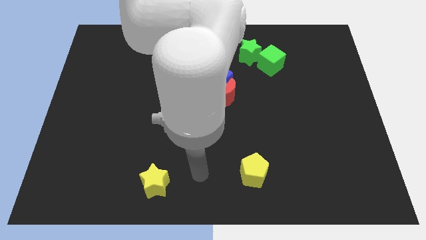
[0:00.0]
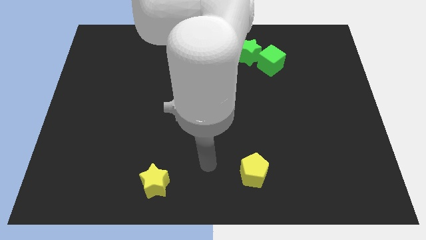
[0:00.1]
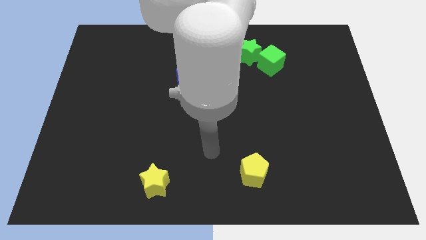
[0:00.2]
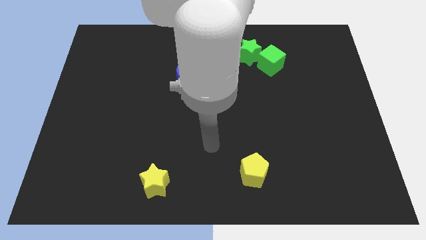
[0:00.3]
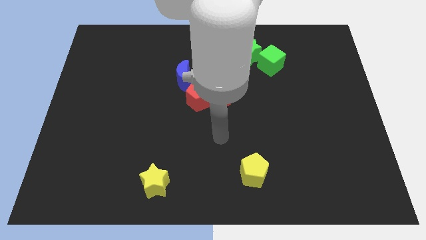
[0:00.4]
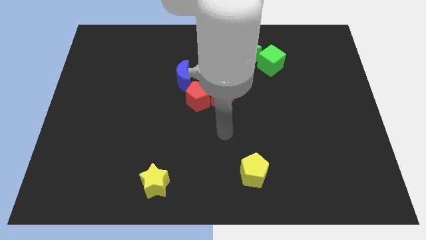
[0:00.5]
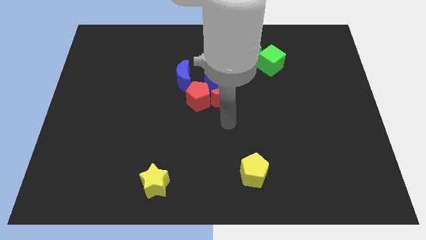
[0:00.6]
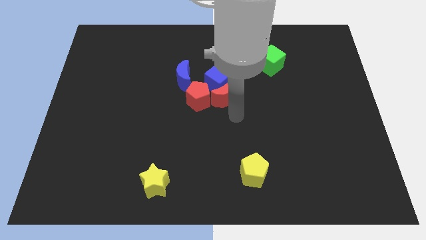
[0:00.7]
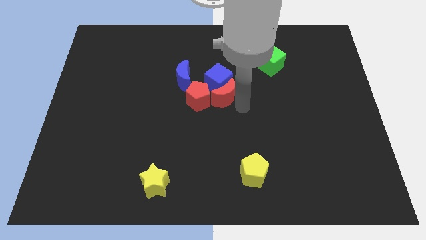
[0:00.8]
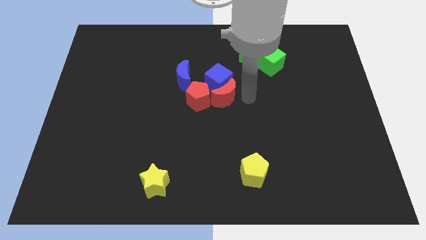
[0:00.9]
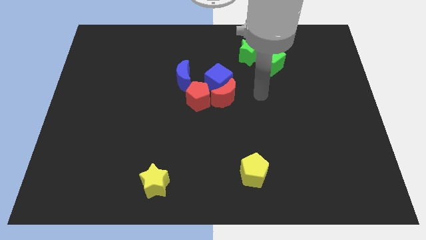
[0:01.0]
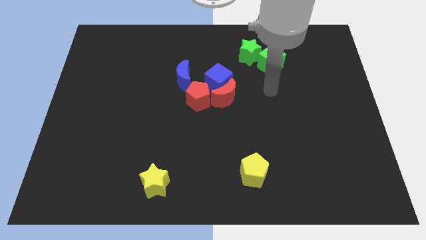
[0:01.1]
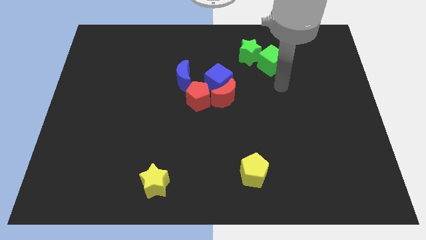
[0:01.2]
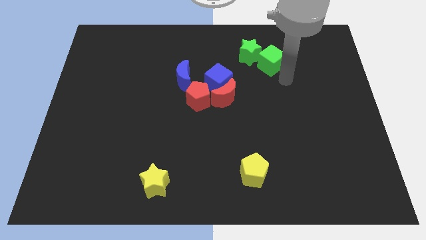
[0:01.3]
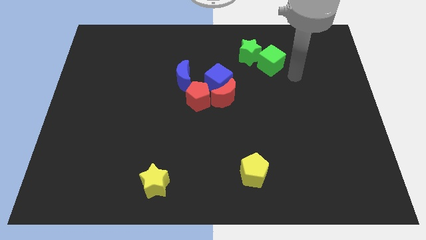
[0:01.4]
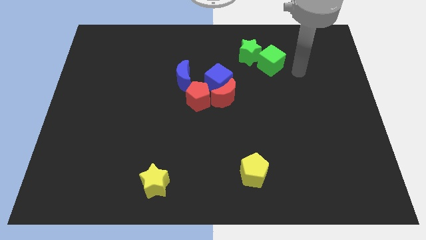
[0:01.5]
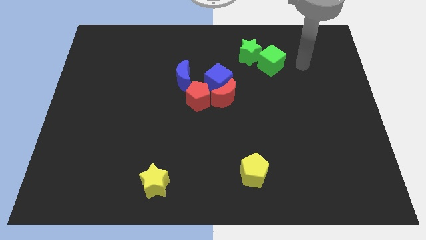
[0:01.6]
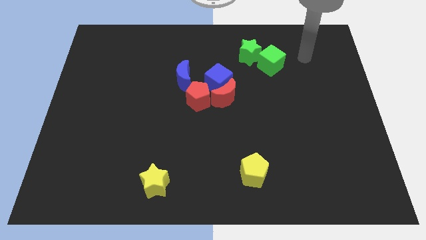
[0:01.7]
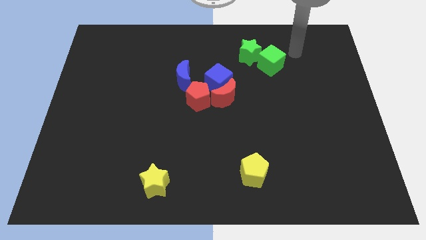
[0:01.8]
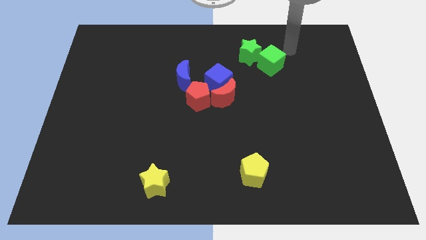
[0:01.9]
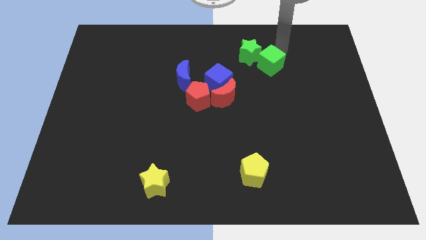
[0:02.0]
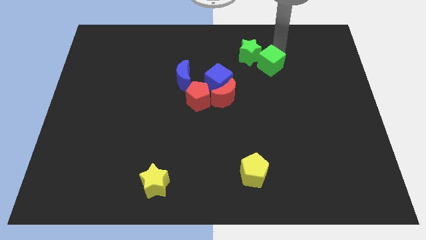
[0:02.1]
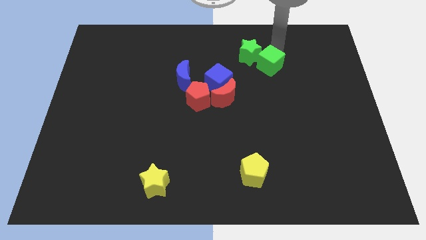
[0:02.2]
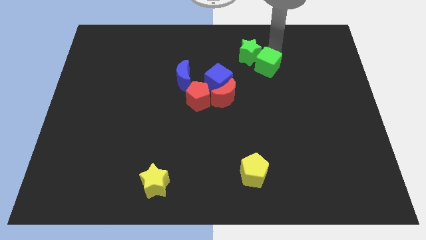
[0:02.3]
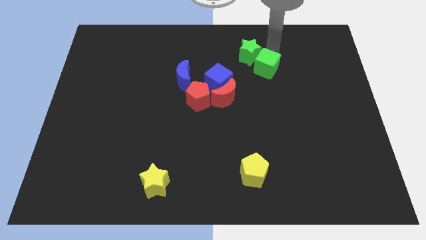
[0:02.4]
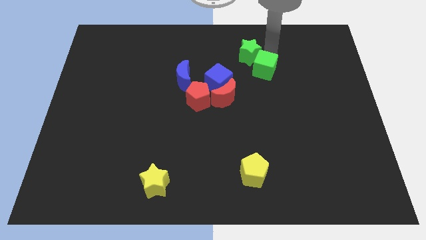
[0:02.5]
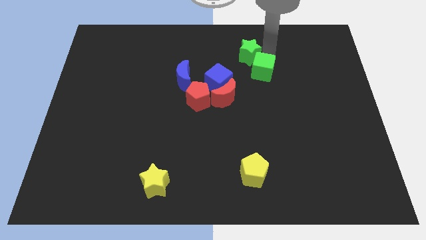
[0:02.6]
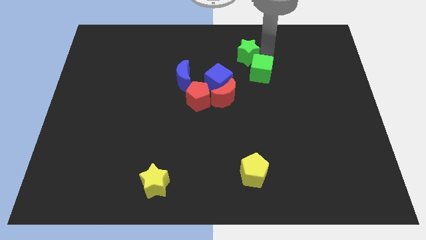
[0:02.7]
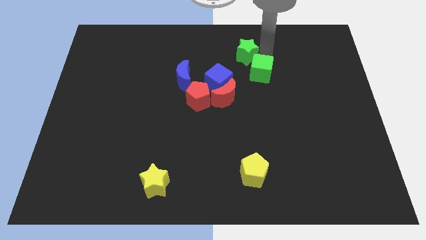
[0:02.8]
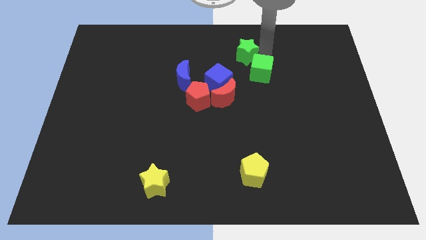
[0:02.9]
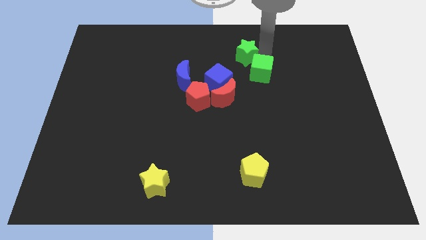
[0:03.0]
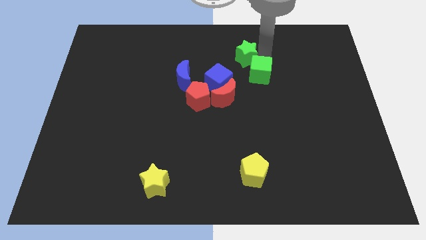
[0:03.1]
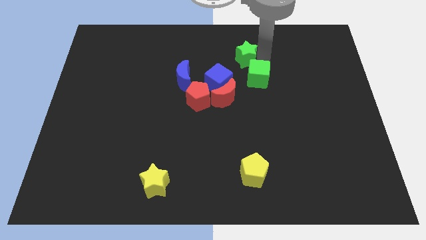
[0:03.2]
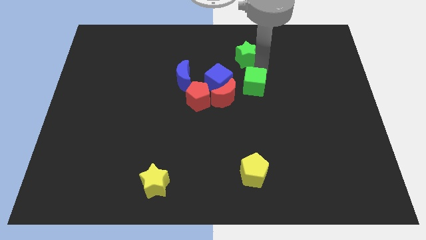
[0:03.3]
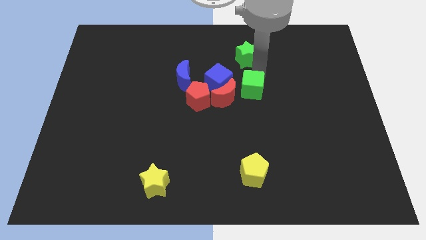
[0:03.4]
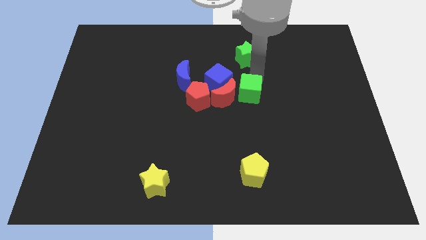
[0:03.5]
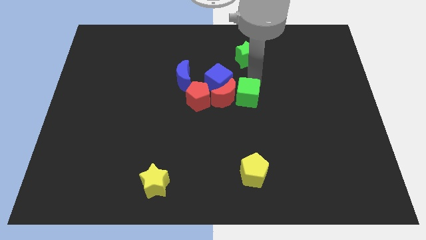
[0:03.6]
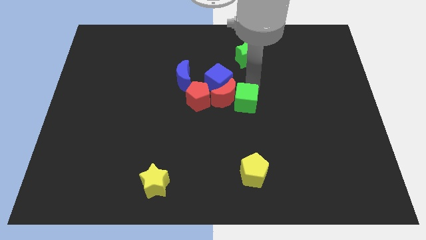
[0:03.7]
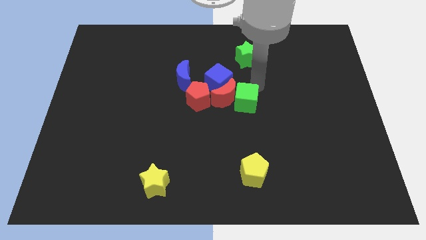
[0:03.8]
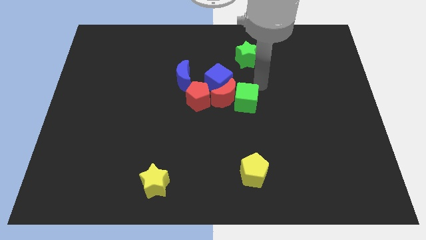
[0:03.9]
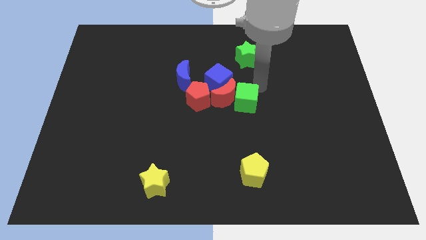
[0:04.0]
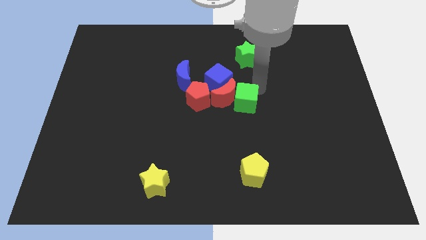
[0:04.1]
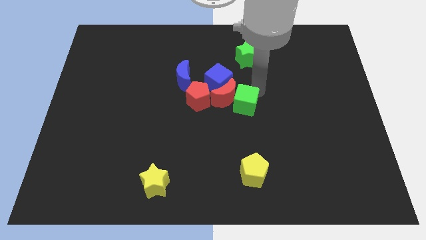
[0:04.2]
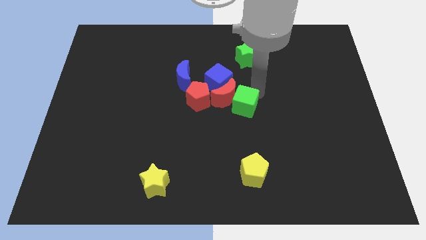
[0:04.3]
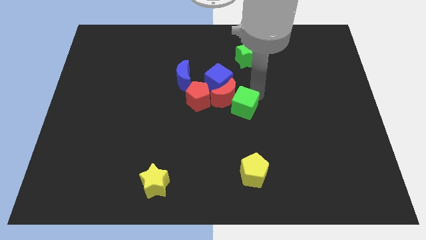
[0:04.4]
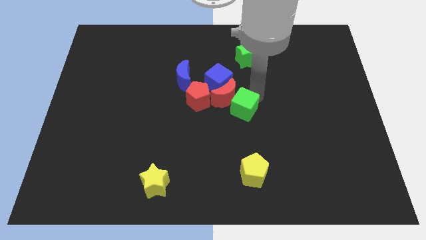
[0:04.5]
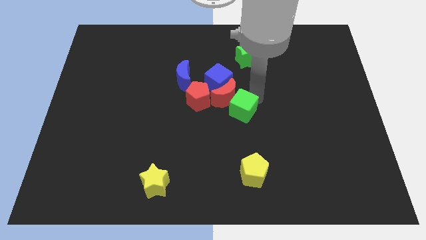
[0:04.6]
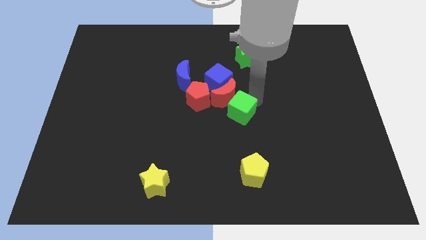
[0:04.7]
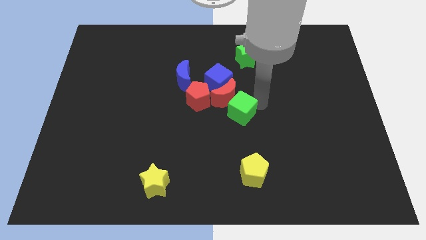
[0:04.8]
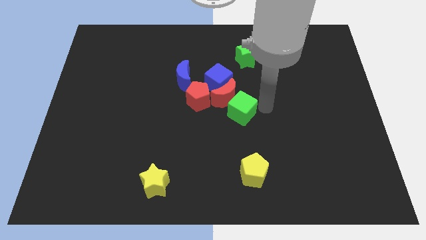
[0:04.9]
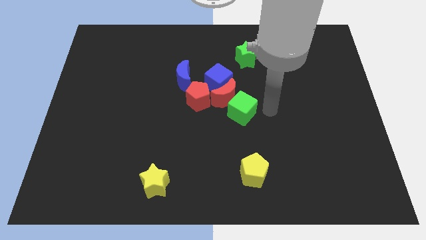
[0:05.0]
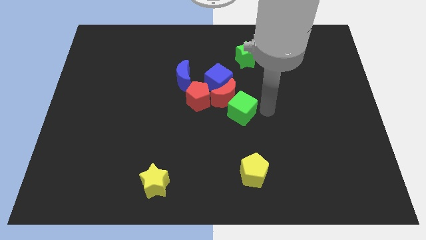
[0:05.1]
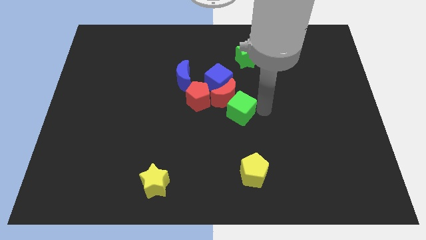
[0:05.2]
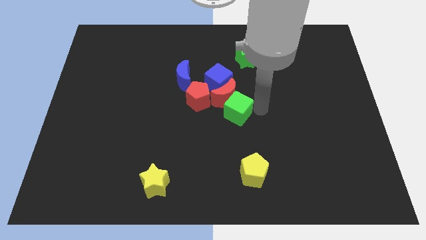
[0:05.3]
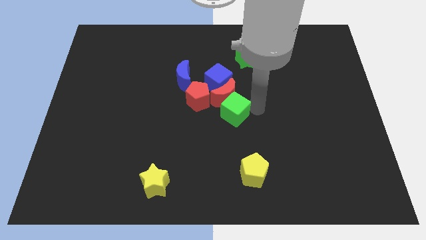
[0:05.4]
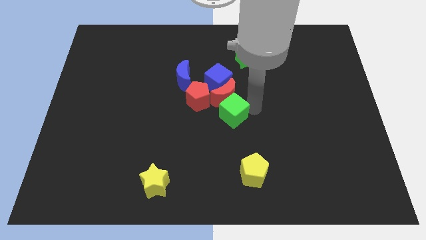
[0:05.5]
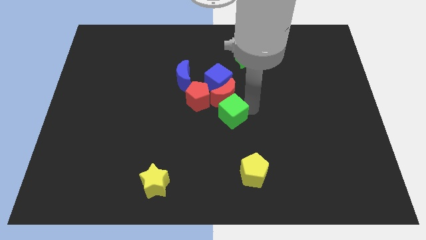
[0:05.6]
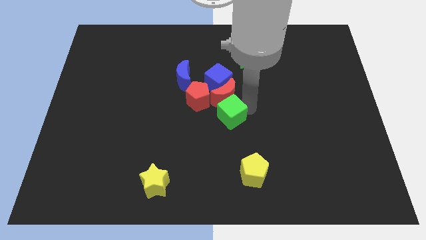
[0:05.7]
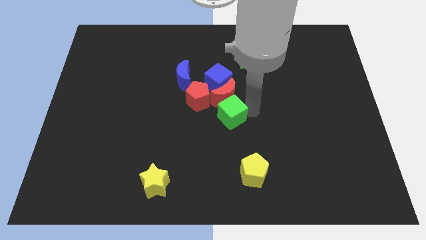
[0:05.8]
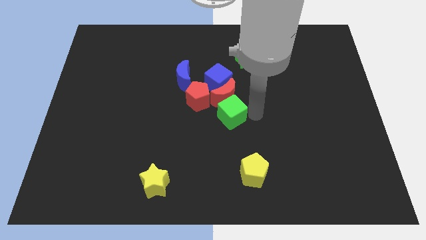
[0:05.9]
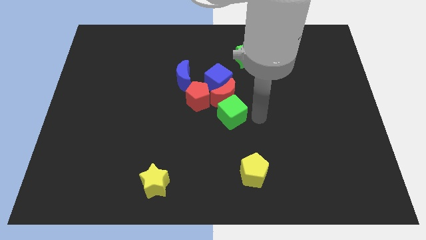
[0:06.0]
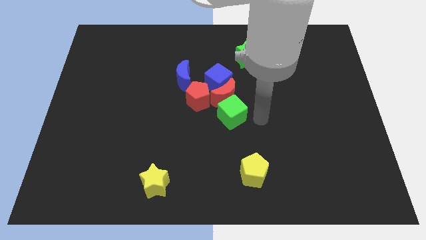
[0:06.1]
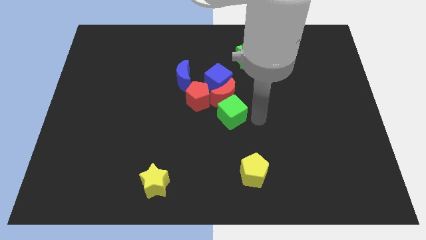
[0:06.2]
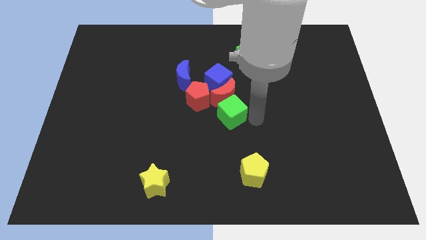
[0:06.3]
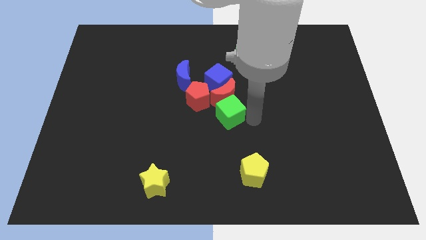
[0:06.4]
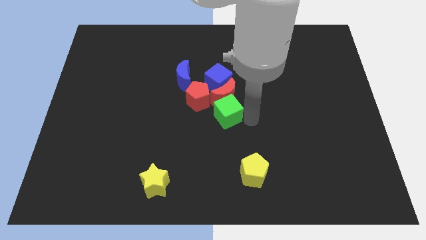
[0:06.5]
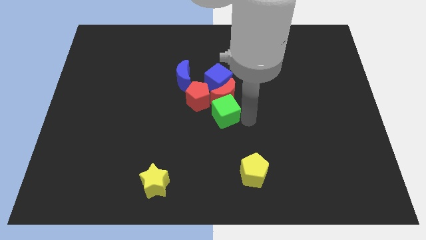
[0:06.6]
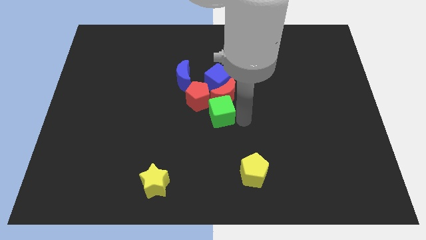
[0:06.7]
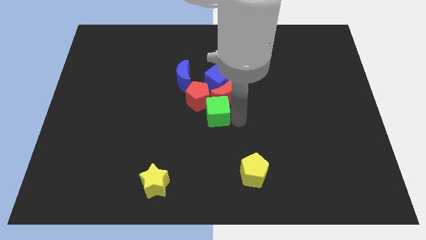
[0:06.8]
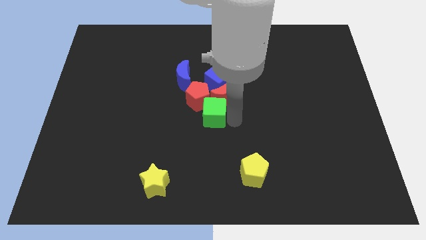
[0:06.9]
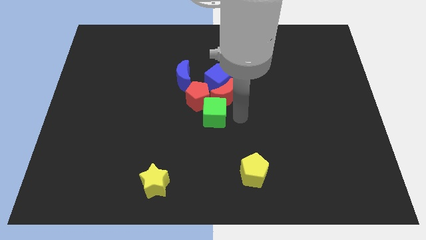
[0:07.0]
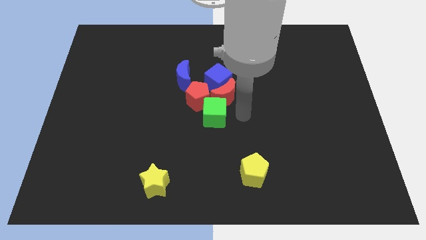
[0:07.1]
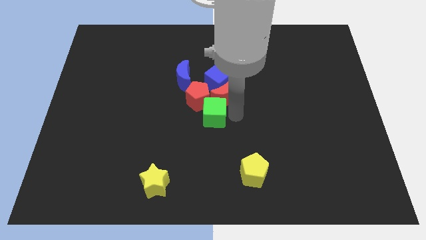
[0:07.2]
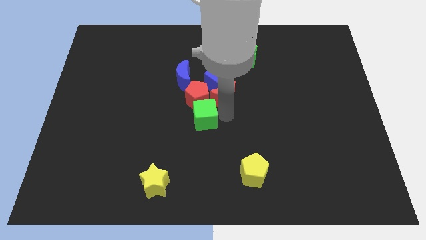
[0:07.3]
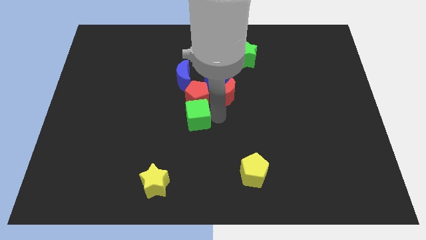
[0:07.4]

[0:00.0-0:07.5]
put the green cube diagonally down and to the left of the red pentagon
